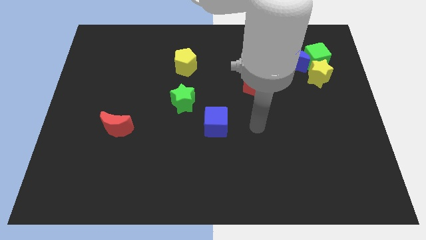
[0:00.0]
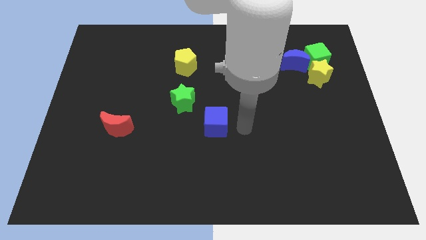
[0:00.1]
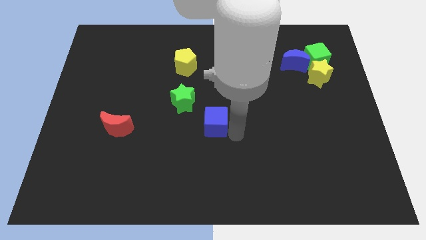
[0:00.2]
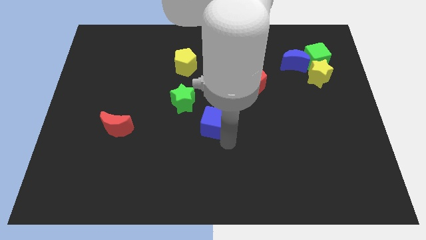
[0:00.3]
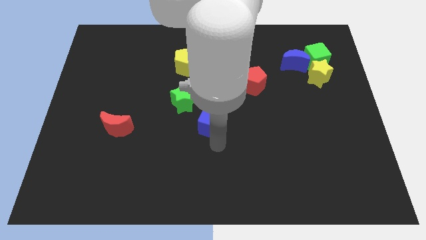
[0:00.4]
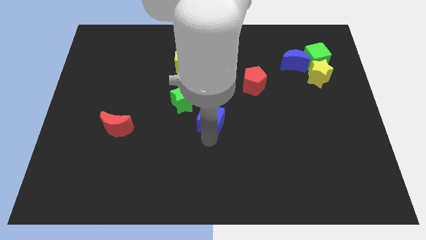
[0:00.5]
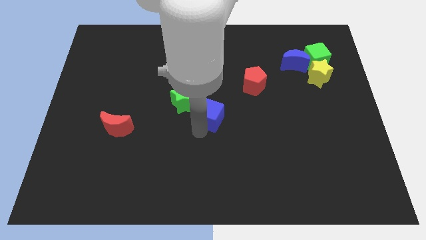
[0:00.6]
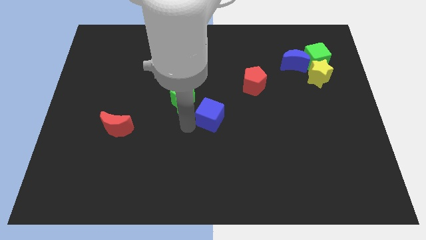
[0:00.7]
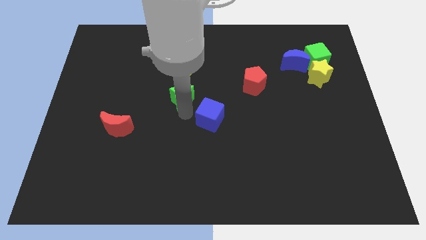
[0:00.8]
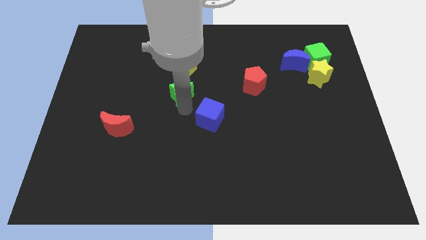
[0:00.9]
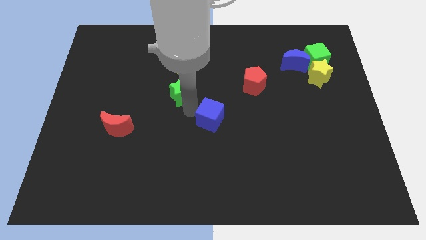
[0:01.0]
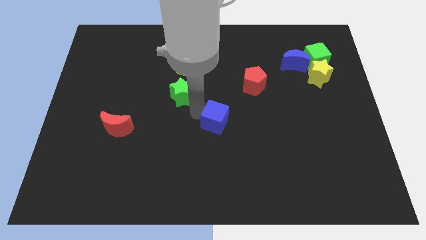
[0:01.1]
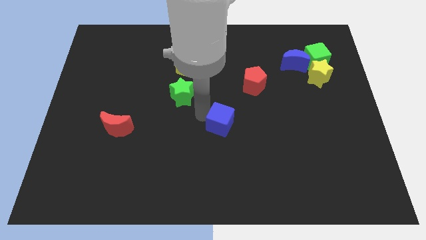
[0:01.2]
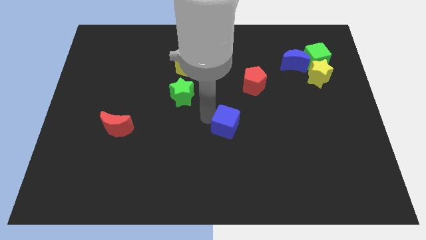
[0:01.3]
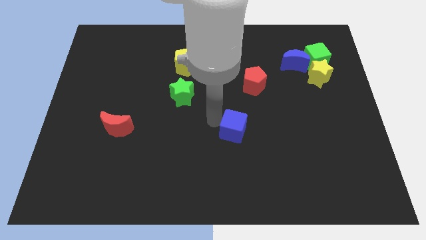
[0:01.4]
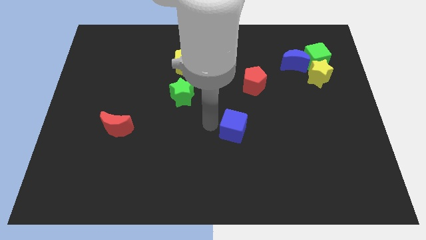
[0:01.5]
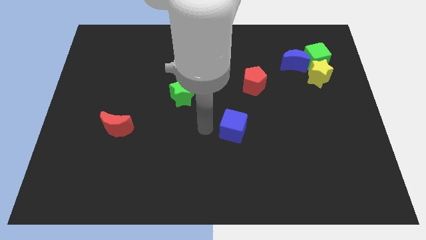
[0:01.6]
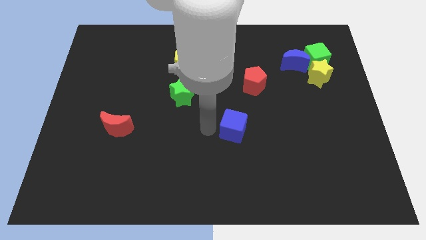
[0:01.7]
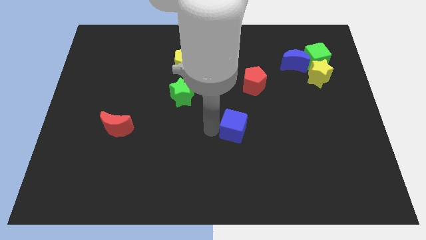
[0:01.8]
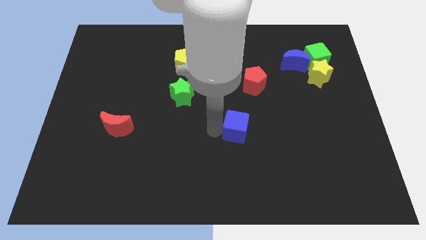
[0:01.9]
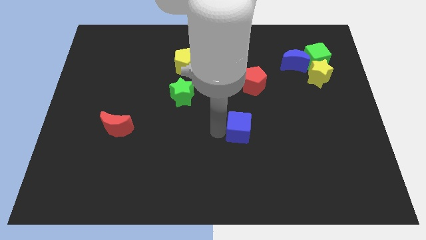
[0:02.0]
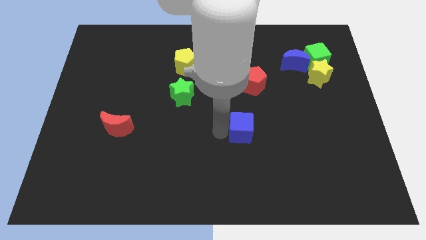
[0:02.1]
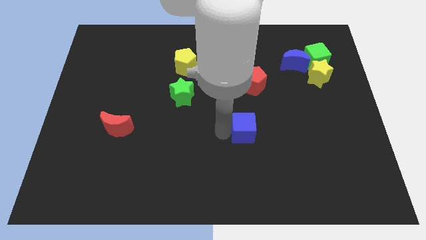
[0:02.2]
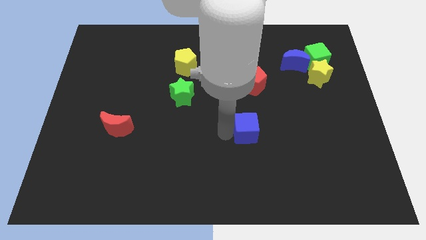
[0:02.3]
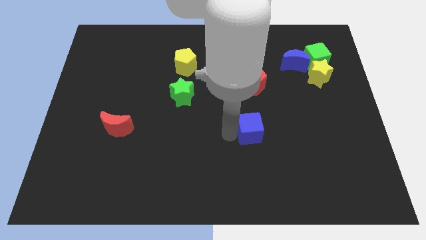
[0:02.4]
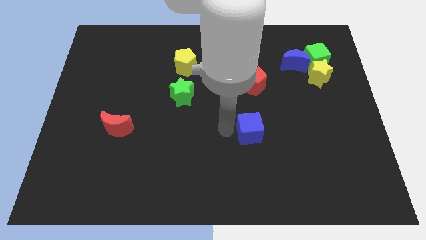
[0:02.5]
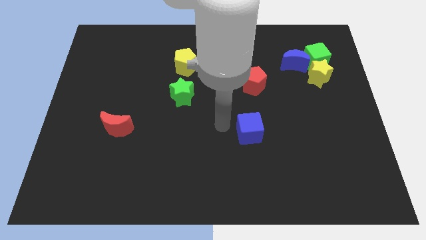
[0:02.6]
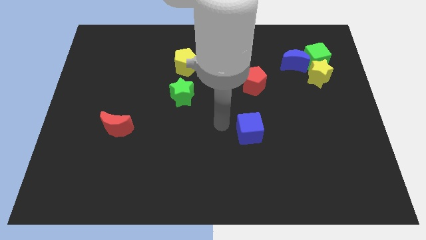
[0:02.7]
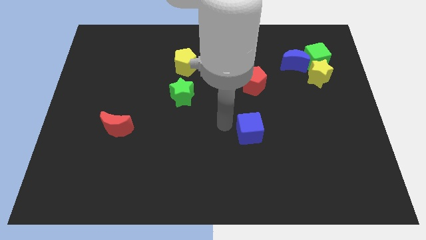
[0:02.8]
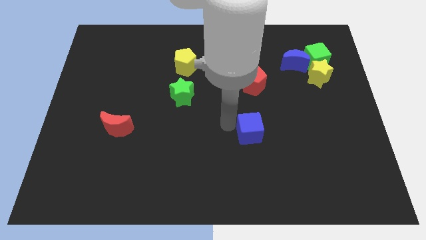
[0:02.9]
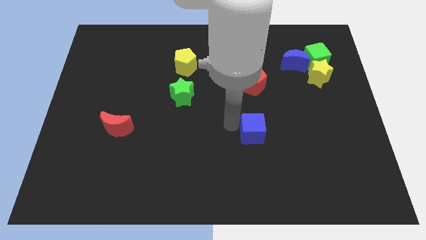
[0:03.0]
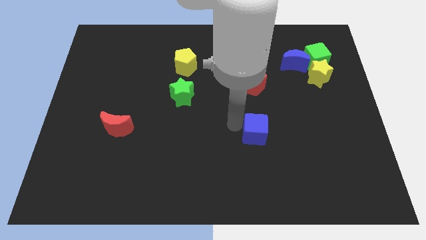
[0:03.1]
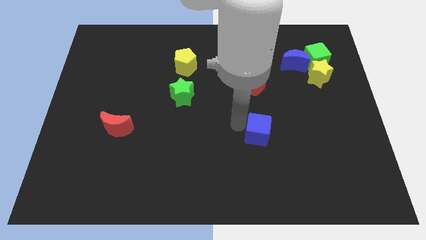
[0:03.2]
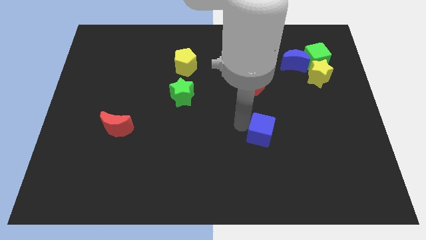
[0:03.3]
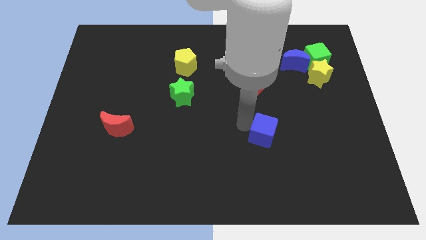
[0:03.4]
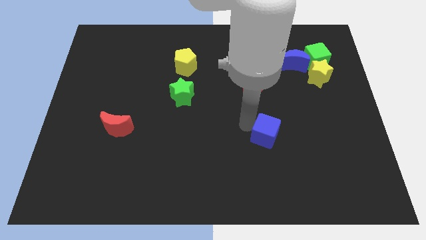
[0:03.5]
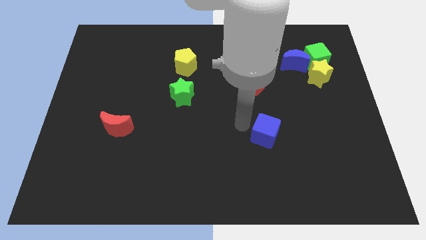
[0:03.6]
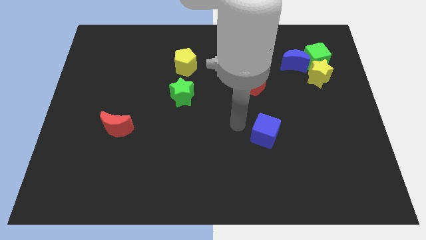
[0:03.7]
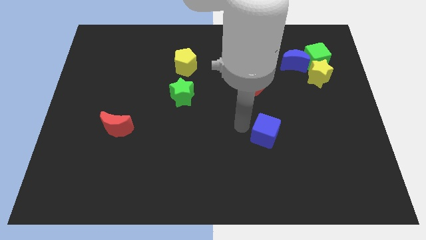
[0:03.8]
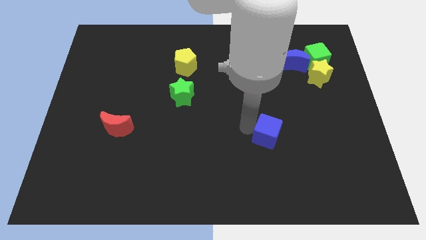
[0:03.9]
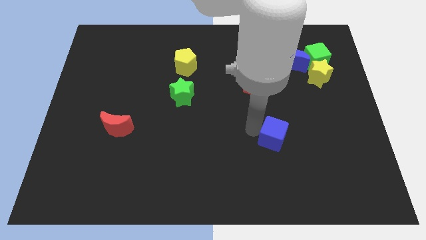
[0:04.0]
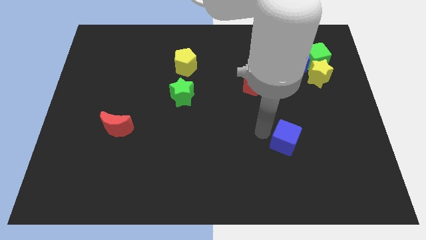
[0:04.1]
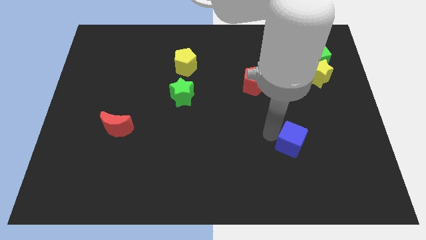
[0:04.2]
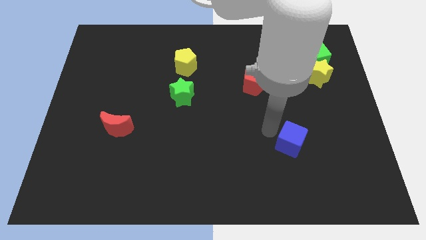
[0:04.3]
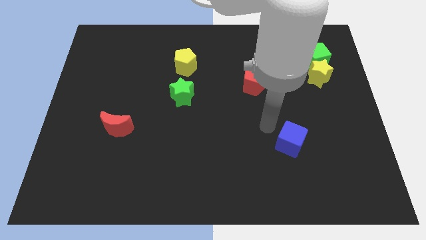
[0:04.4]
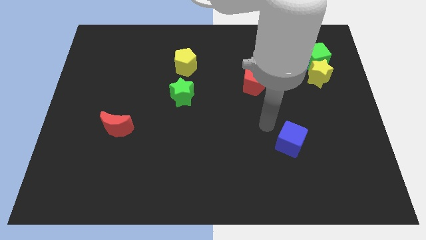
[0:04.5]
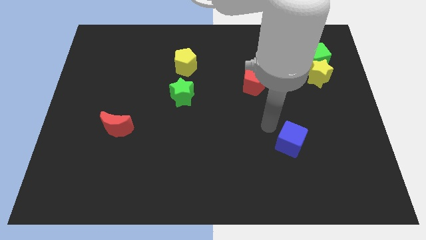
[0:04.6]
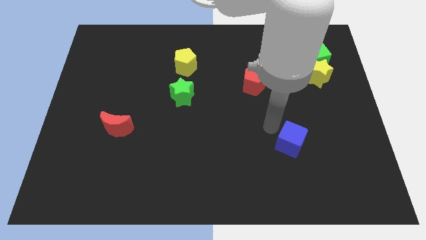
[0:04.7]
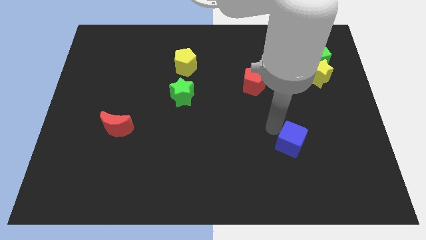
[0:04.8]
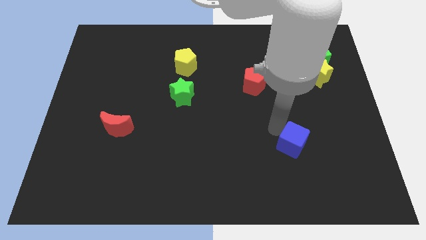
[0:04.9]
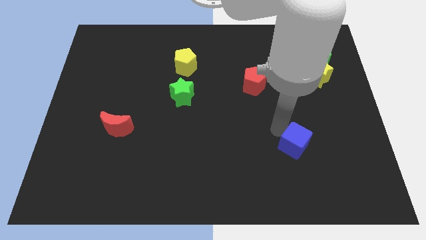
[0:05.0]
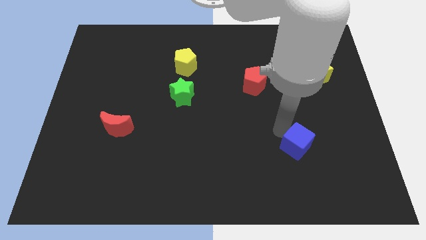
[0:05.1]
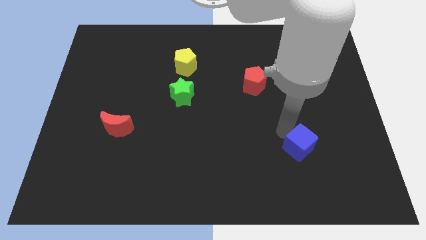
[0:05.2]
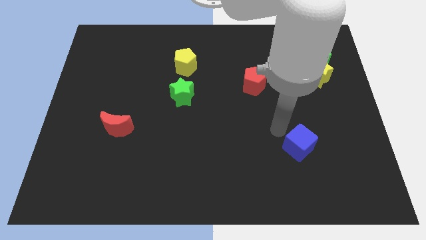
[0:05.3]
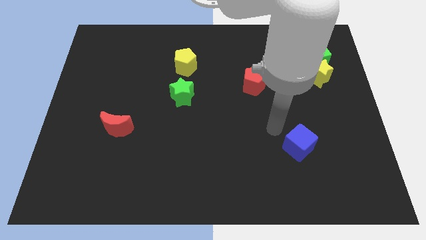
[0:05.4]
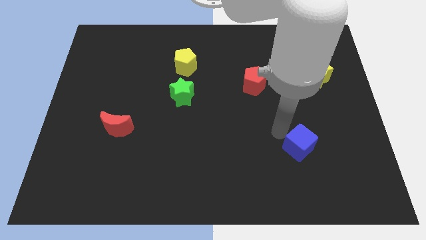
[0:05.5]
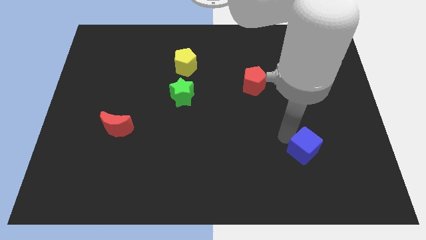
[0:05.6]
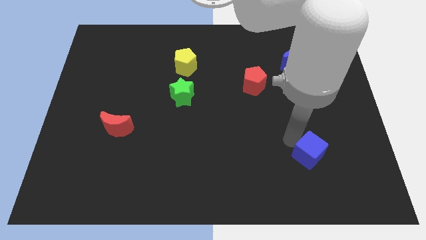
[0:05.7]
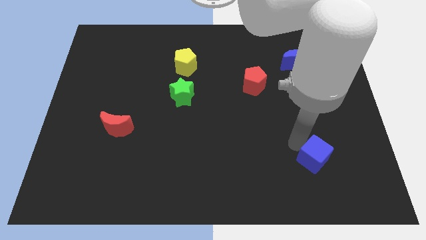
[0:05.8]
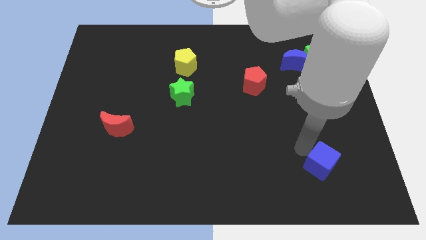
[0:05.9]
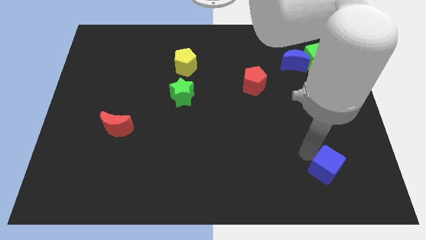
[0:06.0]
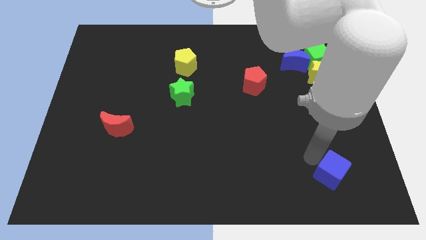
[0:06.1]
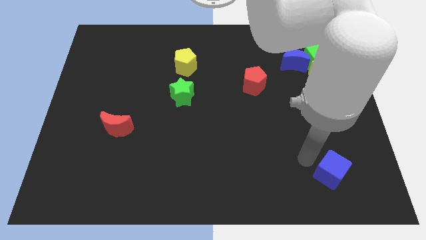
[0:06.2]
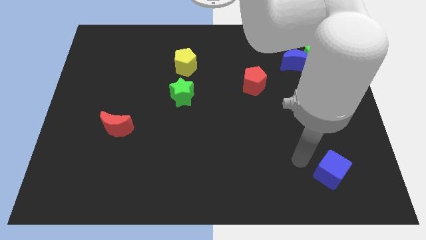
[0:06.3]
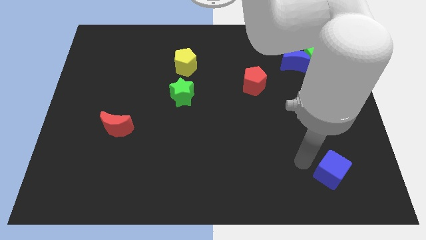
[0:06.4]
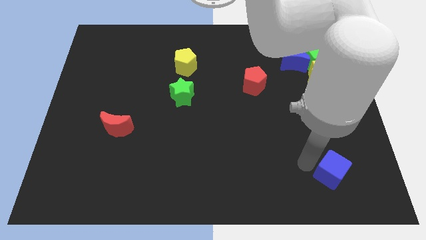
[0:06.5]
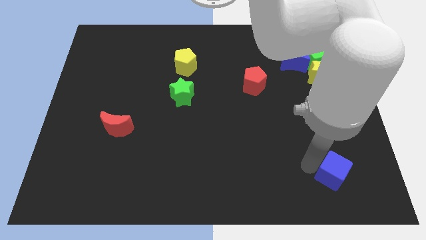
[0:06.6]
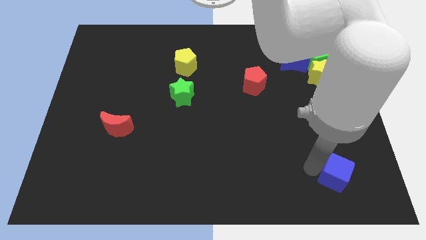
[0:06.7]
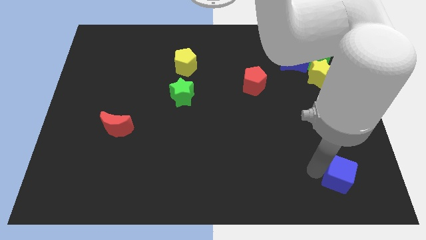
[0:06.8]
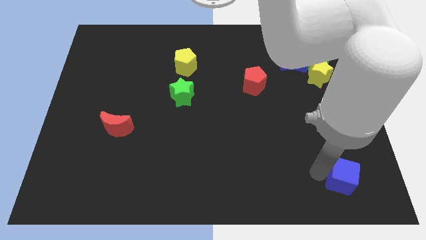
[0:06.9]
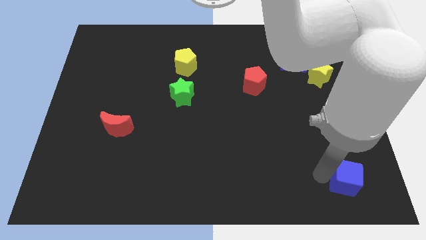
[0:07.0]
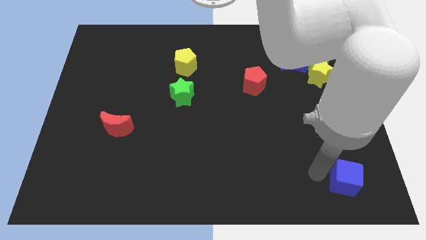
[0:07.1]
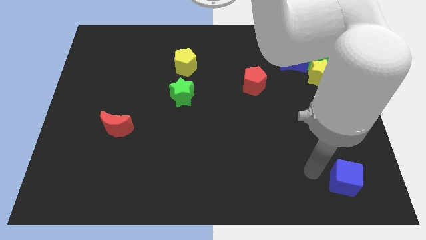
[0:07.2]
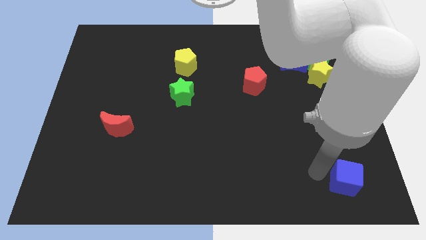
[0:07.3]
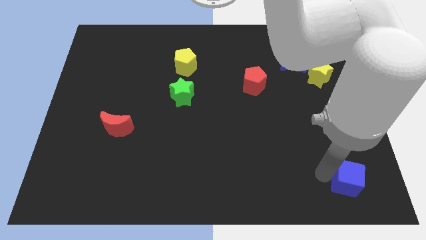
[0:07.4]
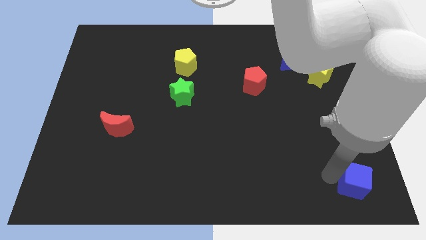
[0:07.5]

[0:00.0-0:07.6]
move the blue cube to the bottom right corner

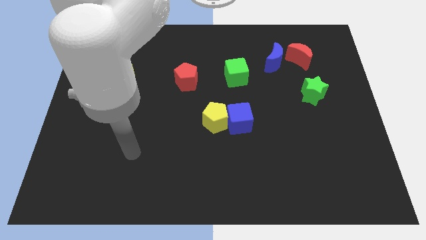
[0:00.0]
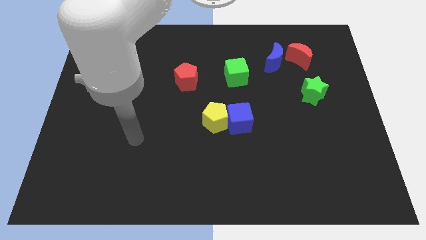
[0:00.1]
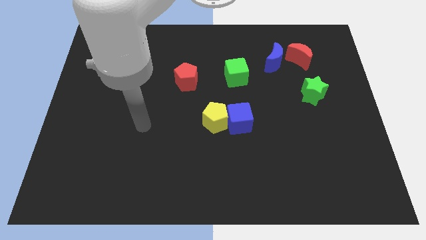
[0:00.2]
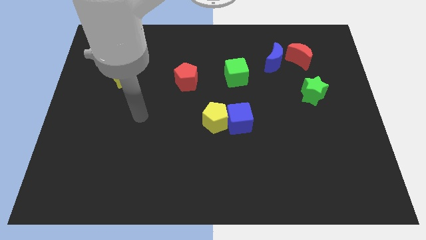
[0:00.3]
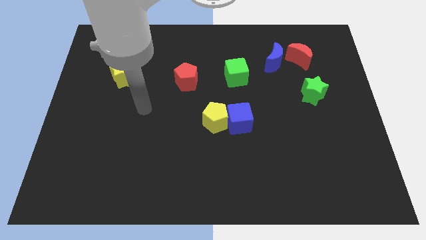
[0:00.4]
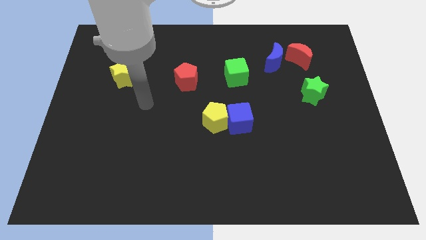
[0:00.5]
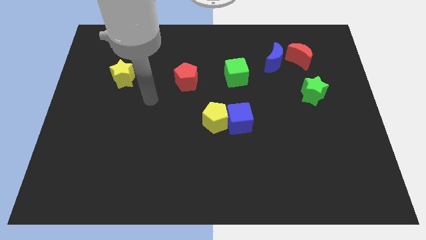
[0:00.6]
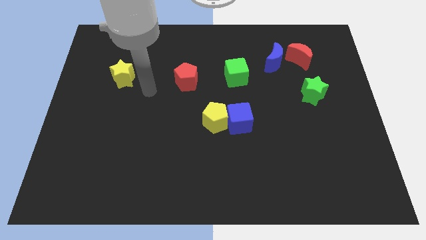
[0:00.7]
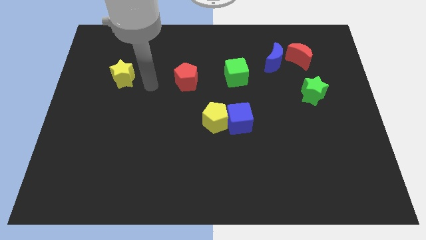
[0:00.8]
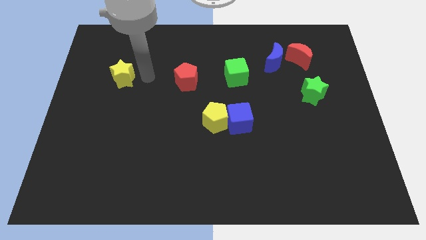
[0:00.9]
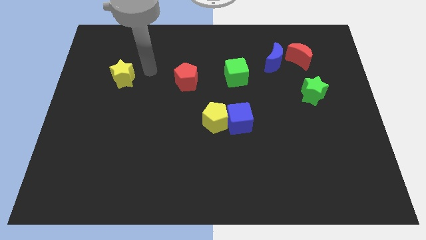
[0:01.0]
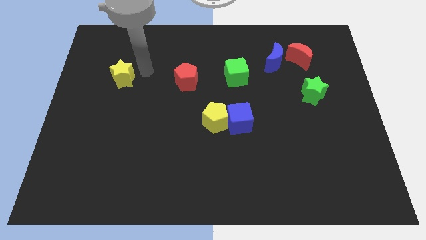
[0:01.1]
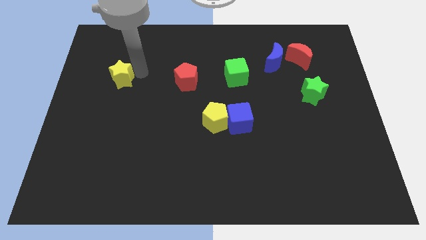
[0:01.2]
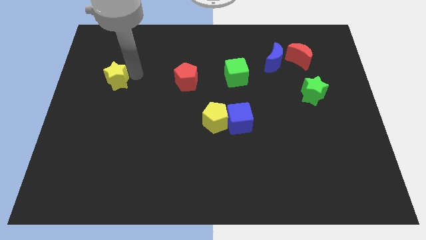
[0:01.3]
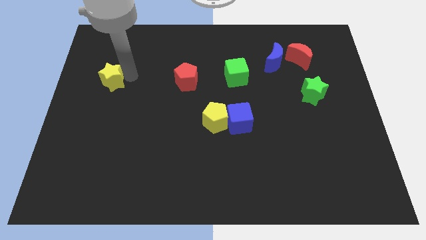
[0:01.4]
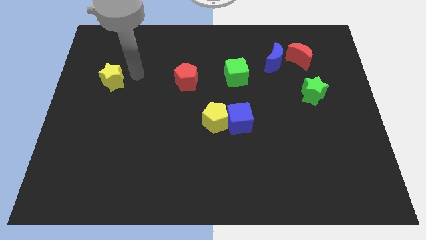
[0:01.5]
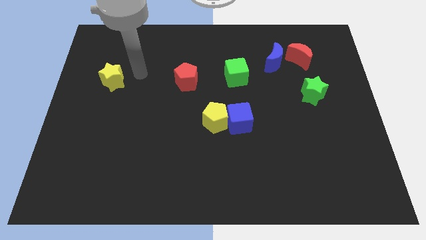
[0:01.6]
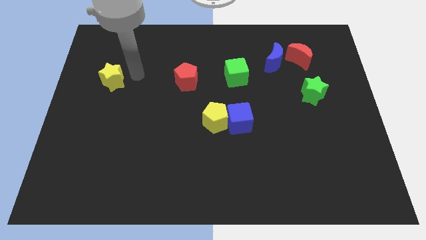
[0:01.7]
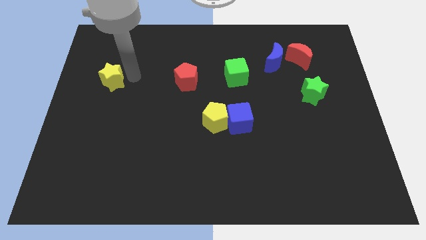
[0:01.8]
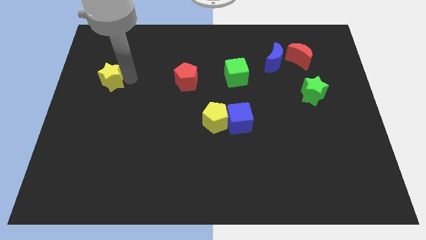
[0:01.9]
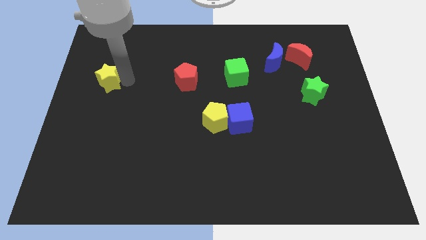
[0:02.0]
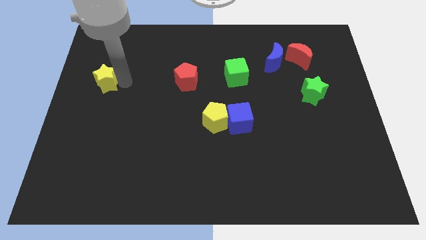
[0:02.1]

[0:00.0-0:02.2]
put the yellow star to the left side
